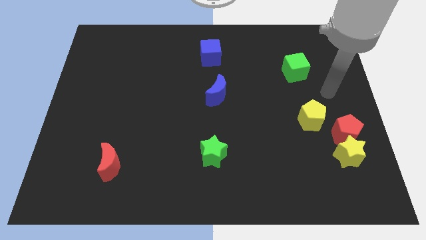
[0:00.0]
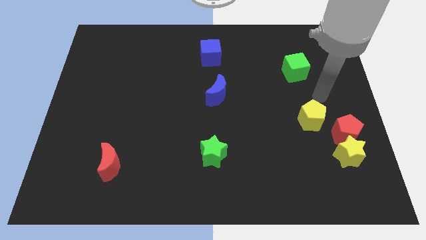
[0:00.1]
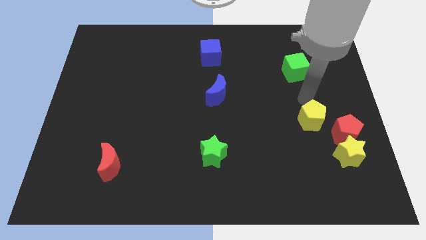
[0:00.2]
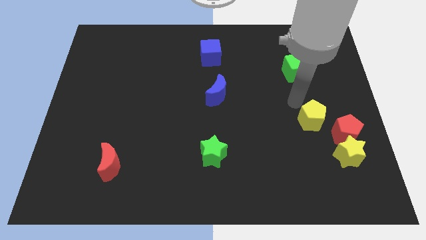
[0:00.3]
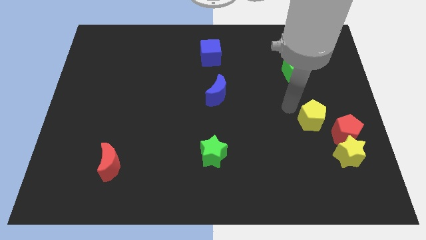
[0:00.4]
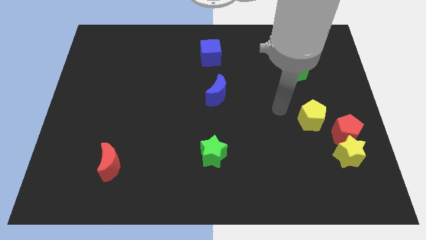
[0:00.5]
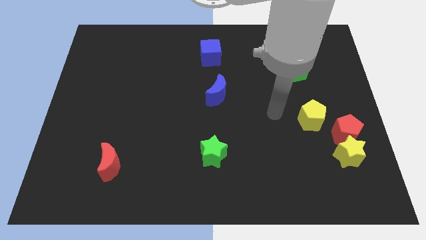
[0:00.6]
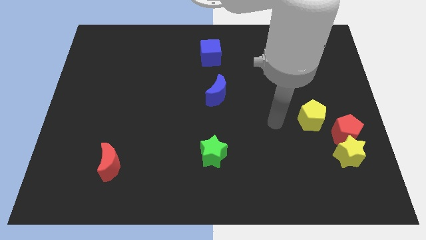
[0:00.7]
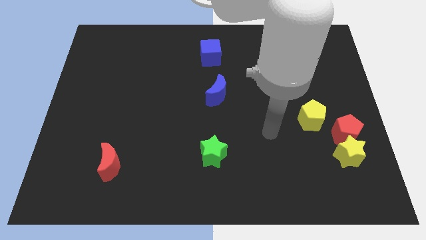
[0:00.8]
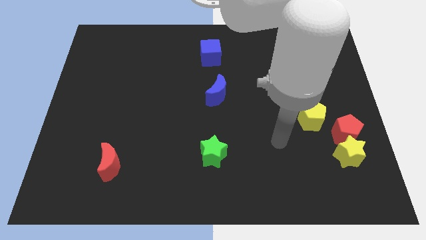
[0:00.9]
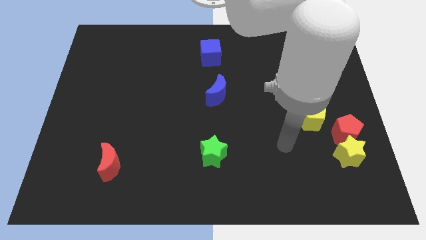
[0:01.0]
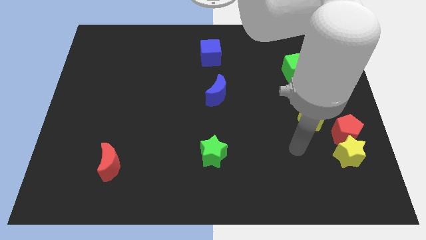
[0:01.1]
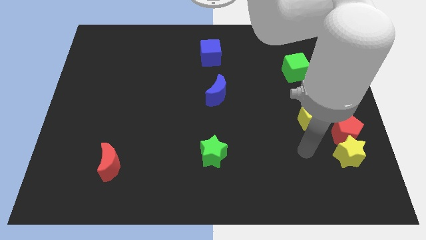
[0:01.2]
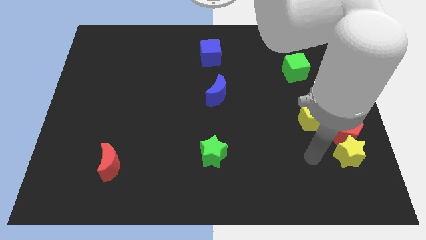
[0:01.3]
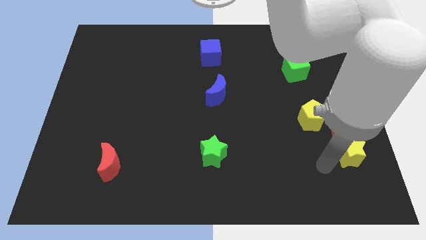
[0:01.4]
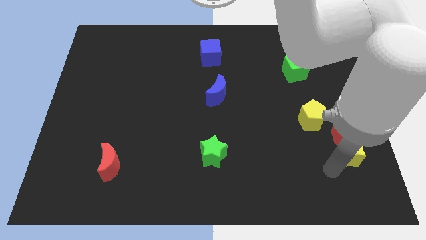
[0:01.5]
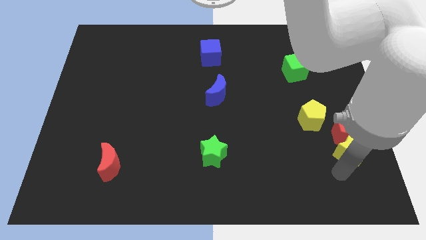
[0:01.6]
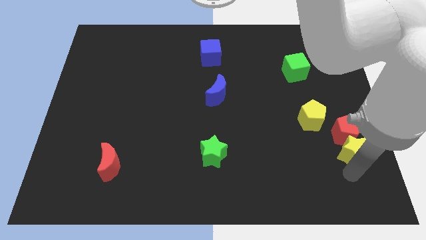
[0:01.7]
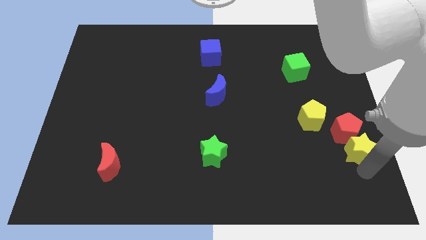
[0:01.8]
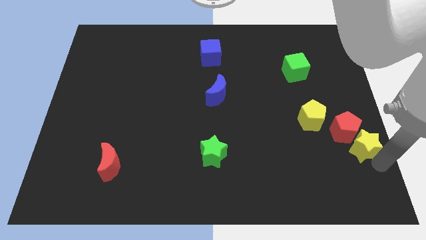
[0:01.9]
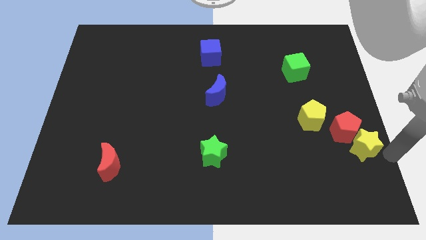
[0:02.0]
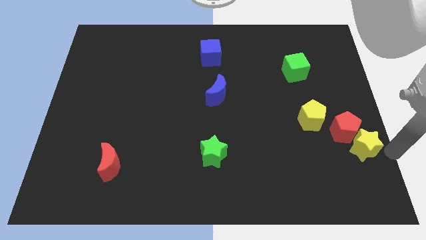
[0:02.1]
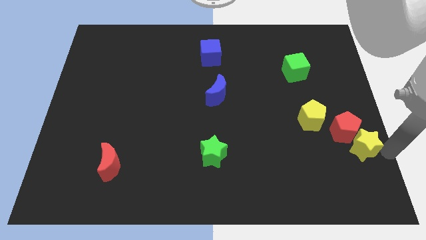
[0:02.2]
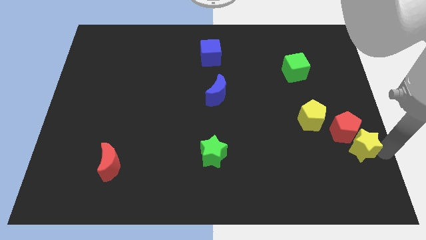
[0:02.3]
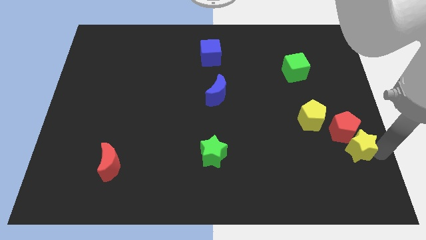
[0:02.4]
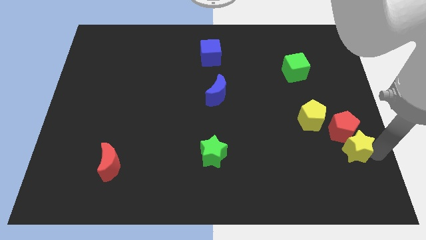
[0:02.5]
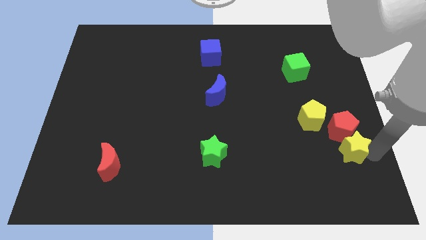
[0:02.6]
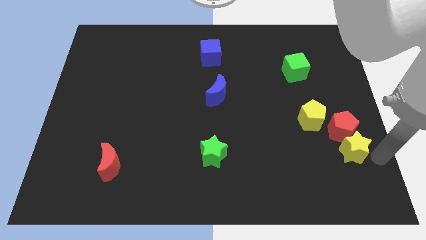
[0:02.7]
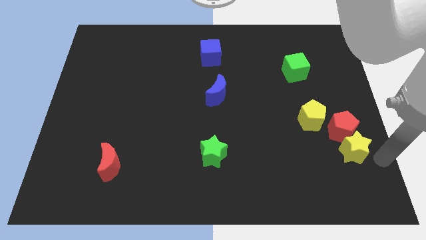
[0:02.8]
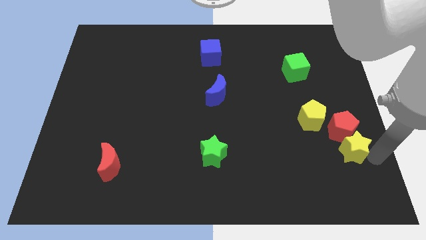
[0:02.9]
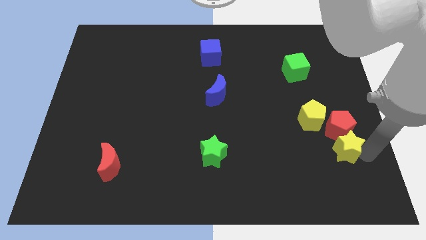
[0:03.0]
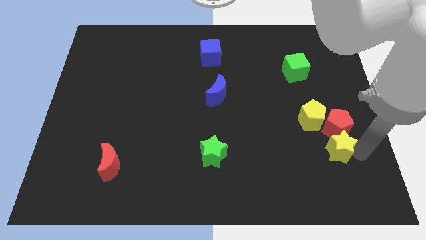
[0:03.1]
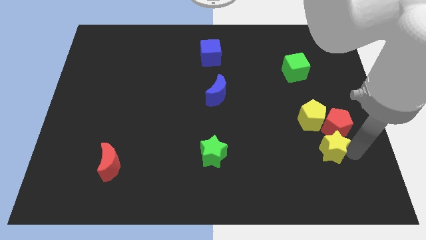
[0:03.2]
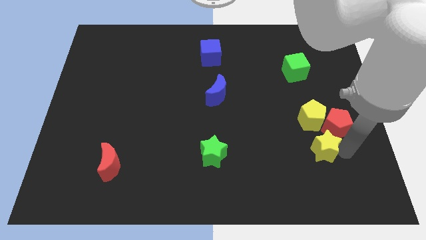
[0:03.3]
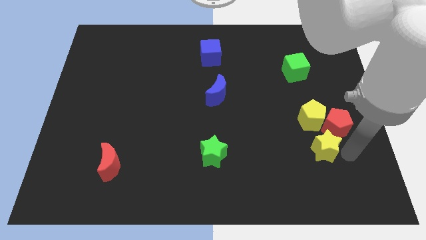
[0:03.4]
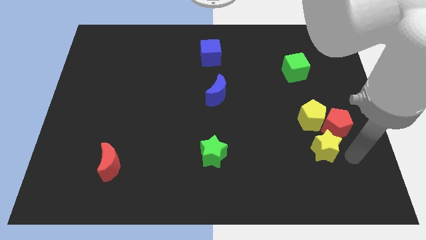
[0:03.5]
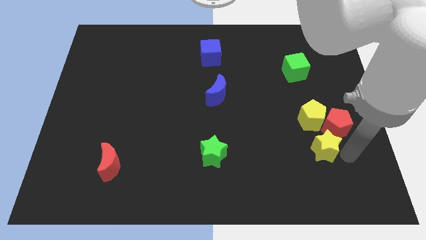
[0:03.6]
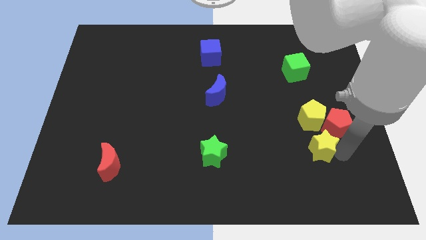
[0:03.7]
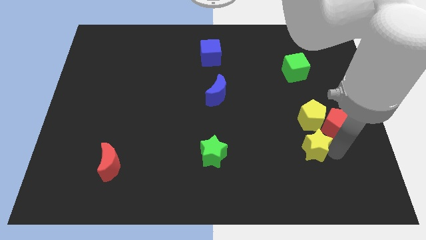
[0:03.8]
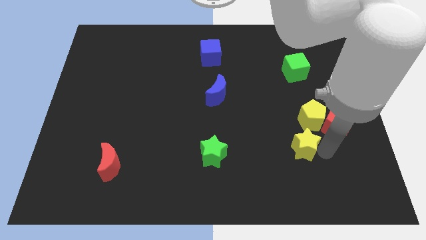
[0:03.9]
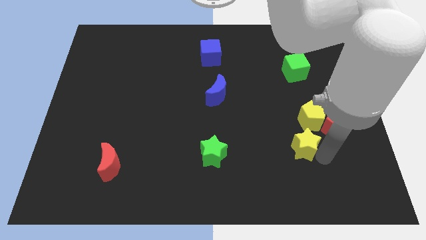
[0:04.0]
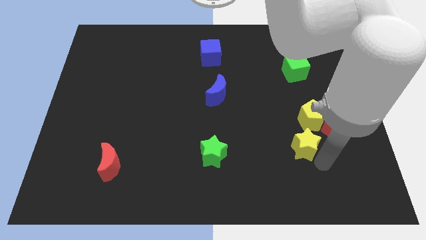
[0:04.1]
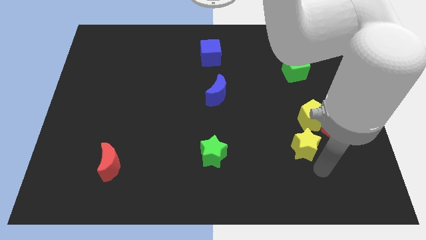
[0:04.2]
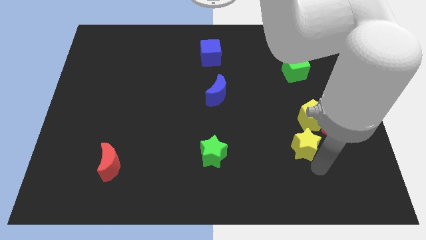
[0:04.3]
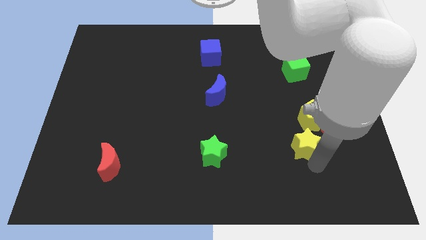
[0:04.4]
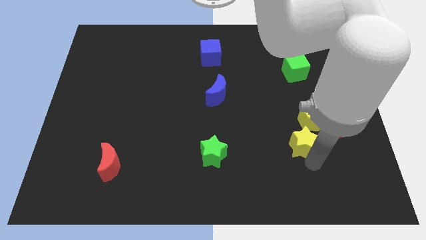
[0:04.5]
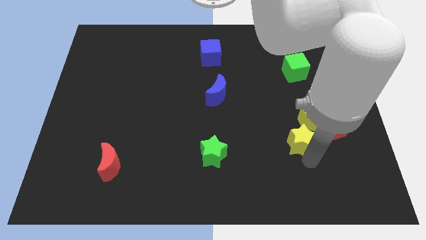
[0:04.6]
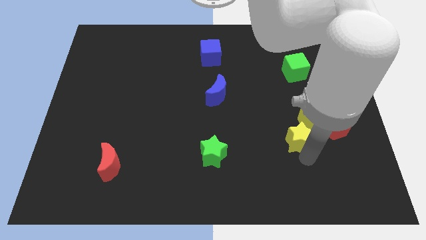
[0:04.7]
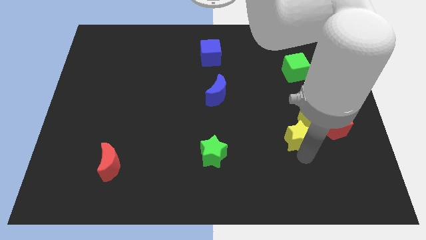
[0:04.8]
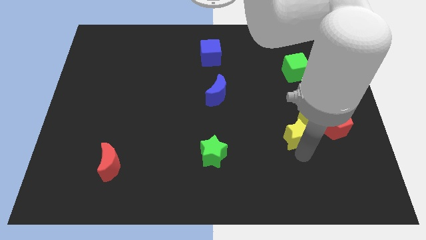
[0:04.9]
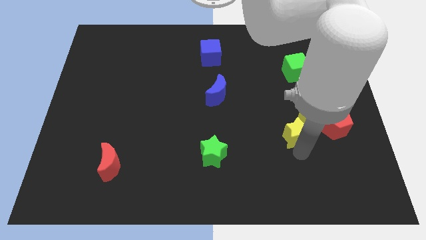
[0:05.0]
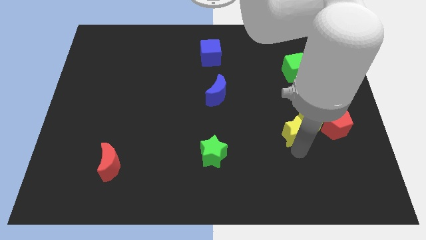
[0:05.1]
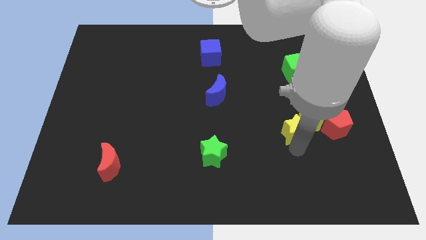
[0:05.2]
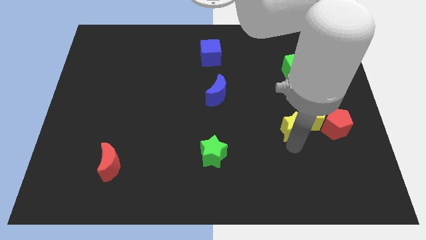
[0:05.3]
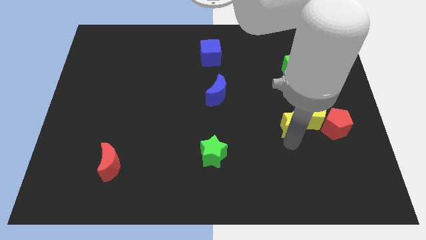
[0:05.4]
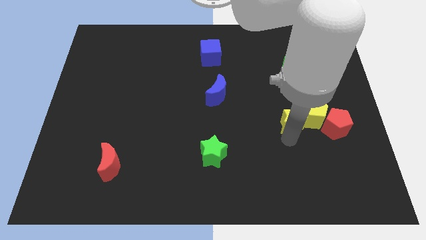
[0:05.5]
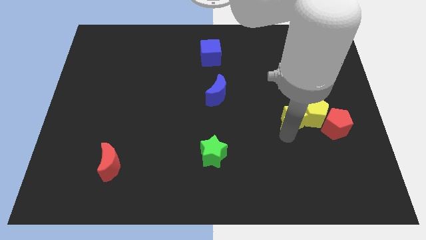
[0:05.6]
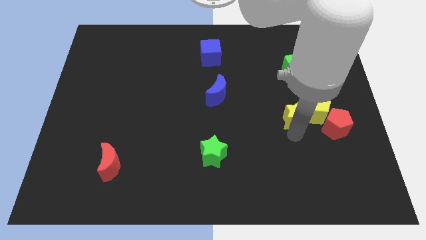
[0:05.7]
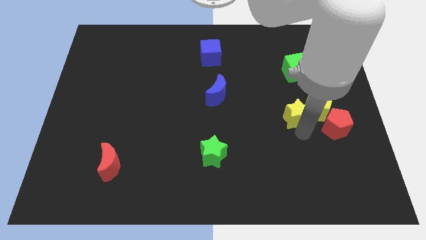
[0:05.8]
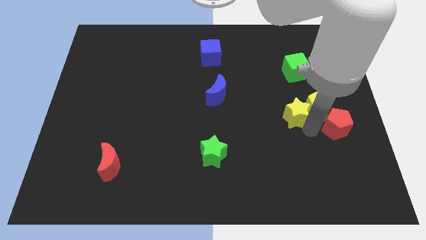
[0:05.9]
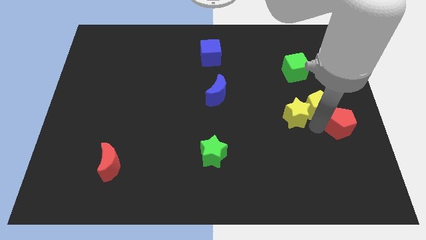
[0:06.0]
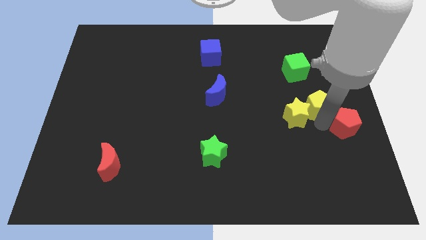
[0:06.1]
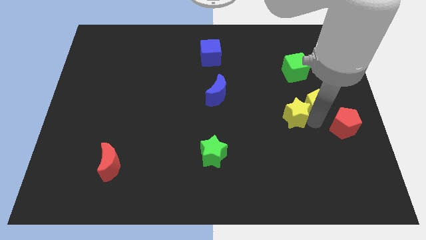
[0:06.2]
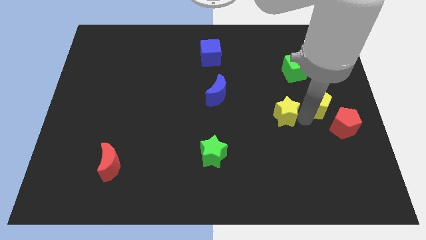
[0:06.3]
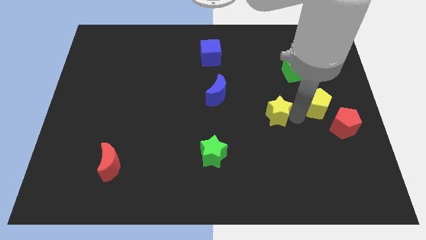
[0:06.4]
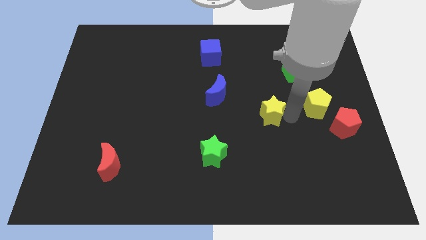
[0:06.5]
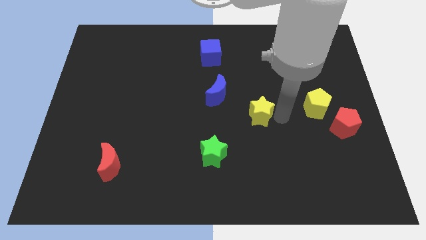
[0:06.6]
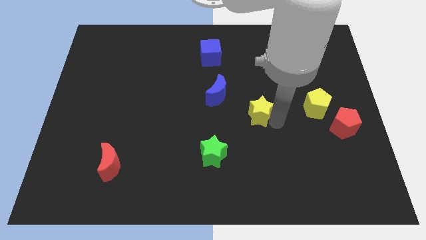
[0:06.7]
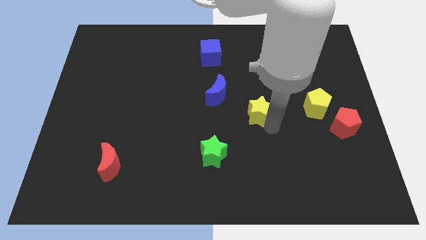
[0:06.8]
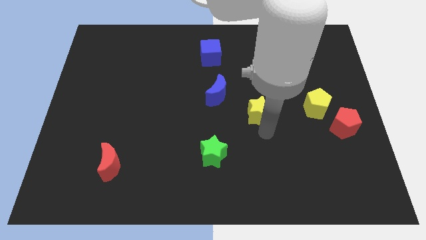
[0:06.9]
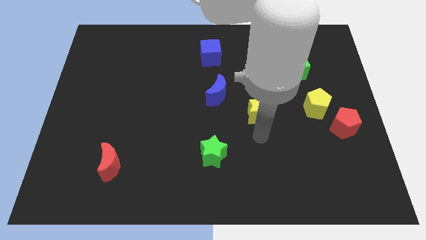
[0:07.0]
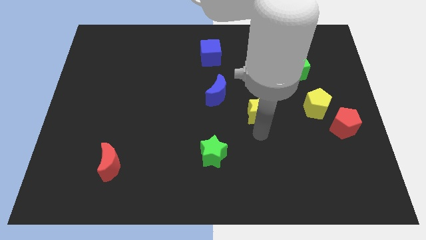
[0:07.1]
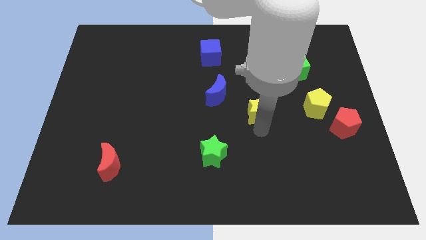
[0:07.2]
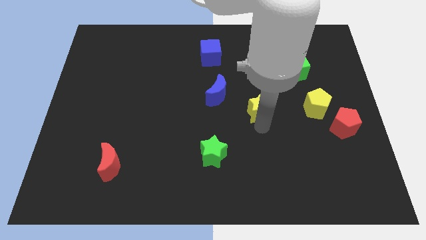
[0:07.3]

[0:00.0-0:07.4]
push the yellow star upwards and to the left diagonally

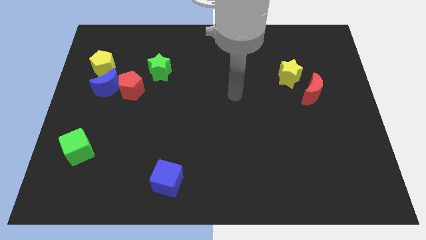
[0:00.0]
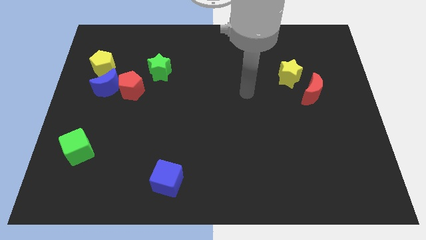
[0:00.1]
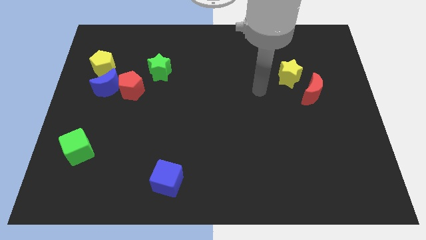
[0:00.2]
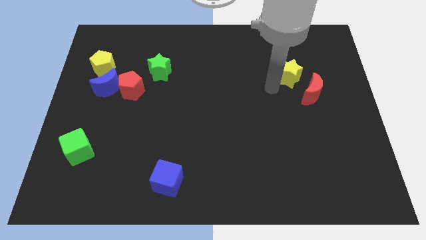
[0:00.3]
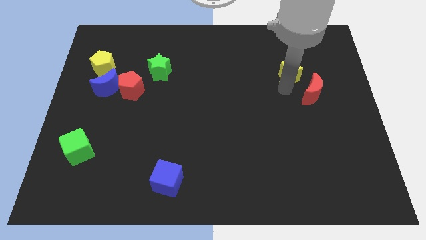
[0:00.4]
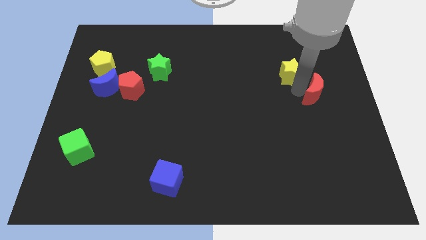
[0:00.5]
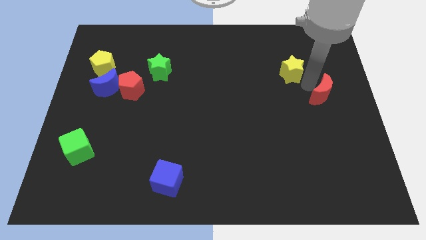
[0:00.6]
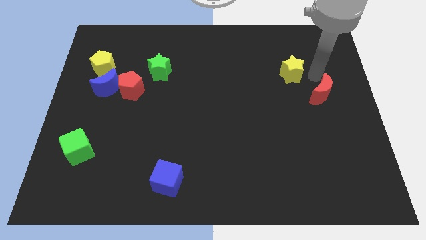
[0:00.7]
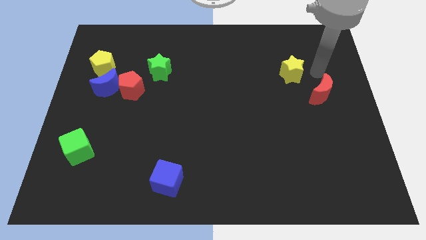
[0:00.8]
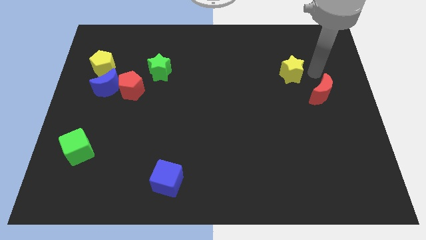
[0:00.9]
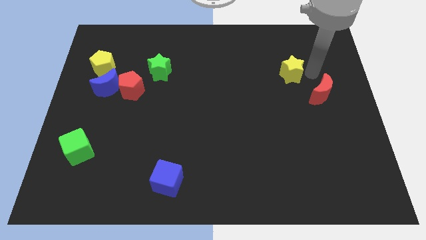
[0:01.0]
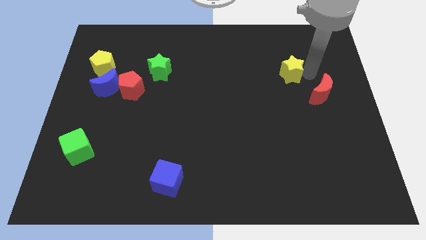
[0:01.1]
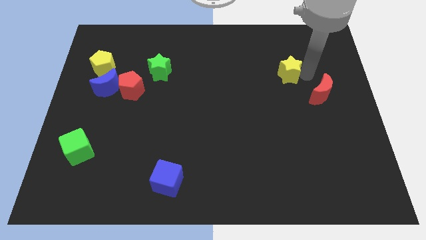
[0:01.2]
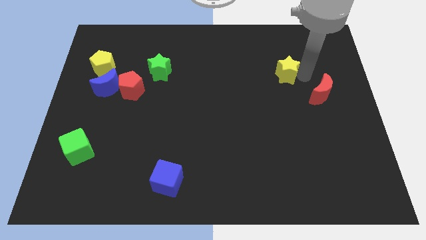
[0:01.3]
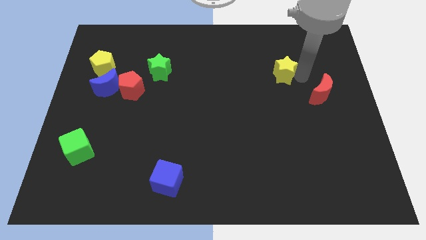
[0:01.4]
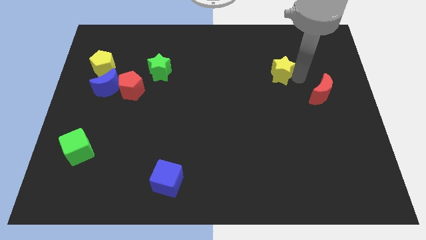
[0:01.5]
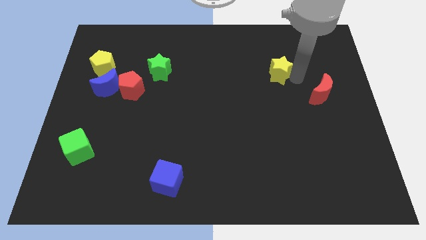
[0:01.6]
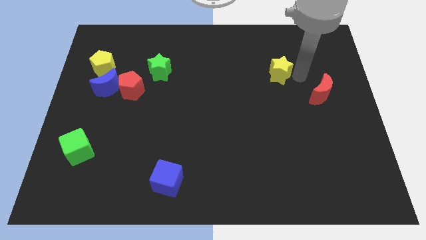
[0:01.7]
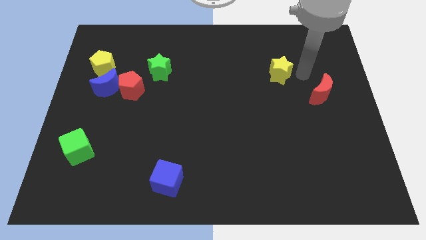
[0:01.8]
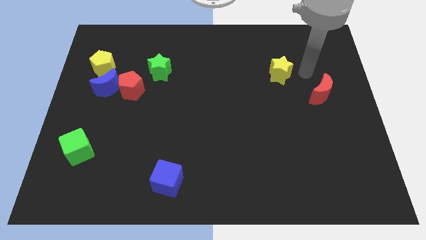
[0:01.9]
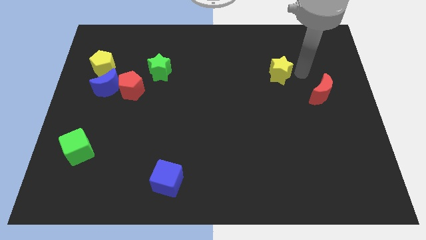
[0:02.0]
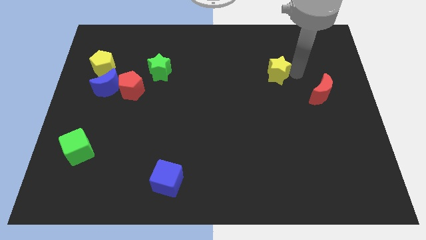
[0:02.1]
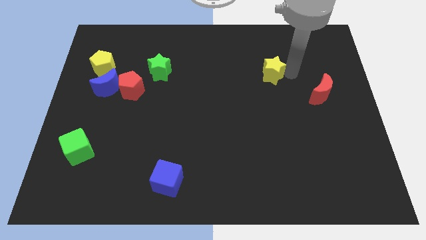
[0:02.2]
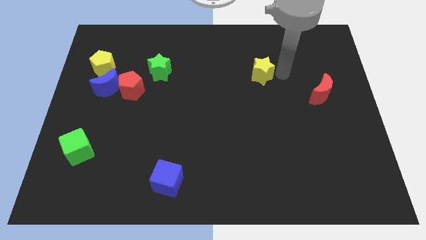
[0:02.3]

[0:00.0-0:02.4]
slightly slide the yellow star left
